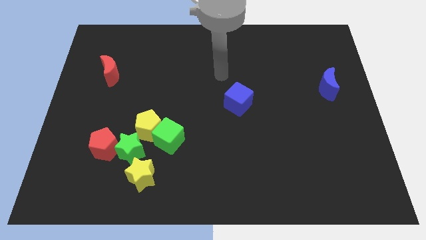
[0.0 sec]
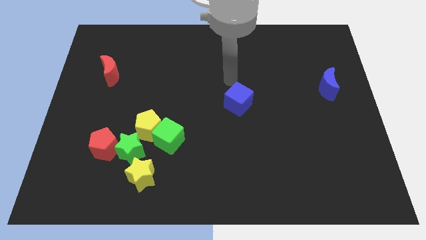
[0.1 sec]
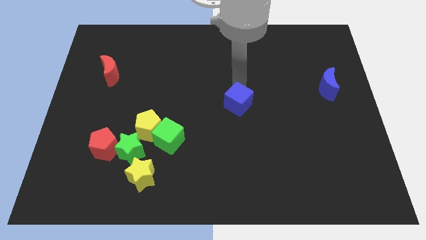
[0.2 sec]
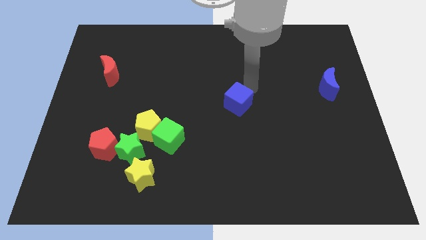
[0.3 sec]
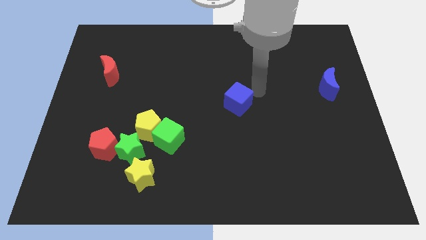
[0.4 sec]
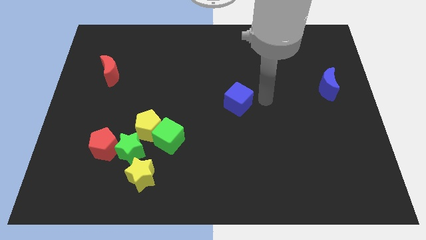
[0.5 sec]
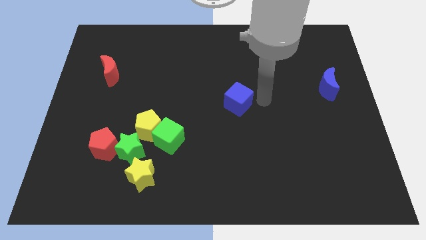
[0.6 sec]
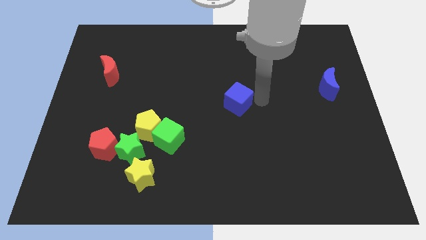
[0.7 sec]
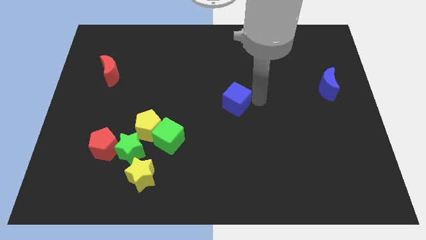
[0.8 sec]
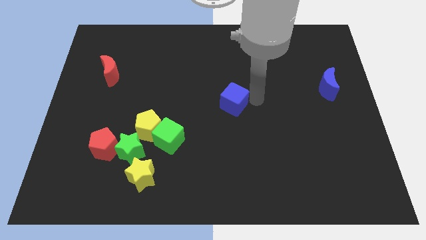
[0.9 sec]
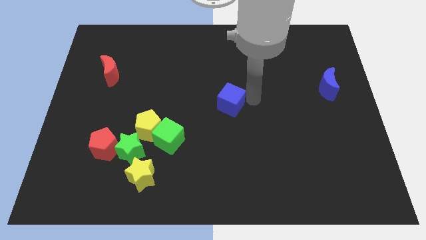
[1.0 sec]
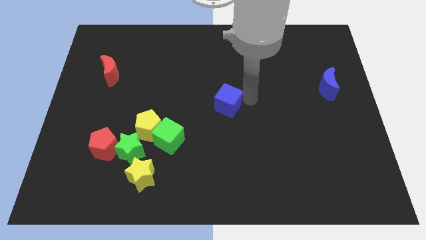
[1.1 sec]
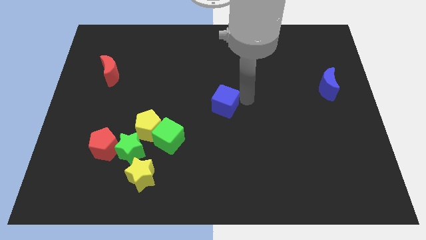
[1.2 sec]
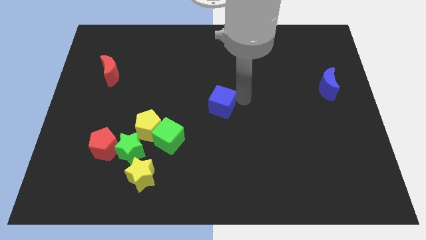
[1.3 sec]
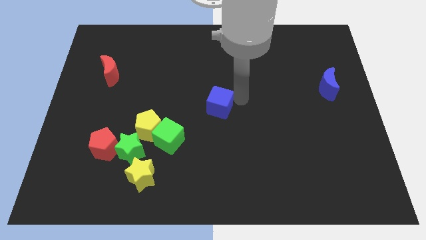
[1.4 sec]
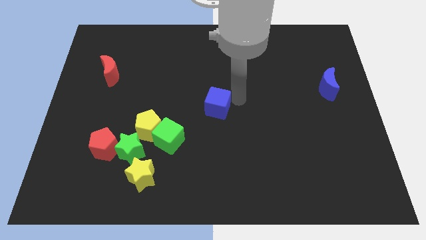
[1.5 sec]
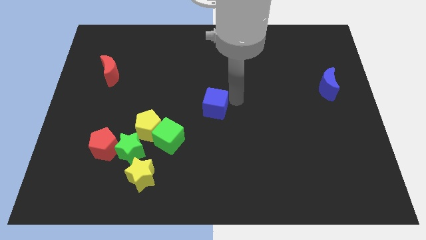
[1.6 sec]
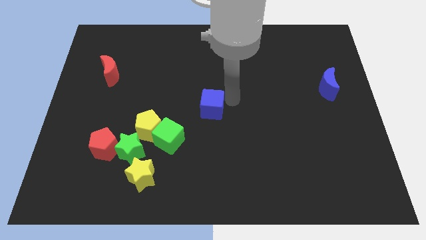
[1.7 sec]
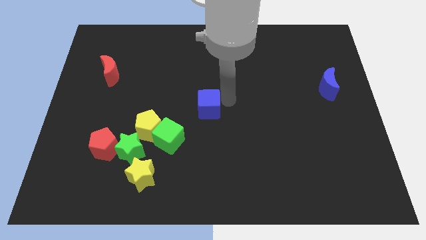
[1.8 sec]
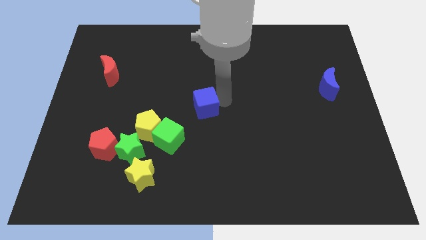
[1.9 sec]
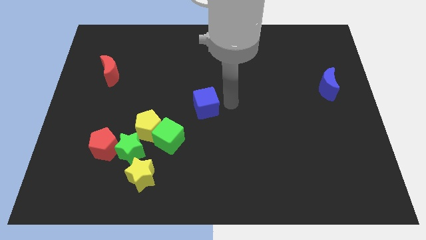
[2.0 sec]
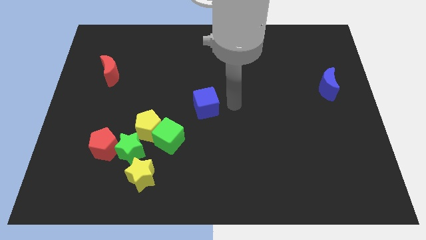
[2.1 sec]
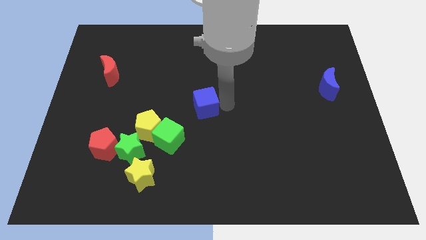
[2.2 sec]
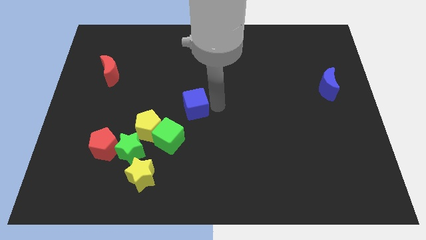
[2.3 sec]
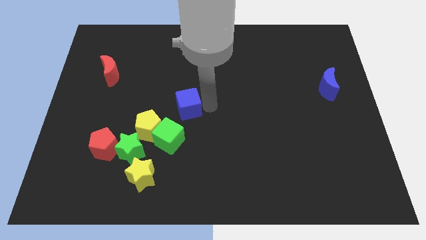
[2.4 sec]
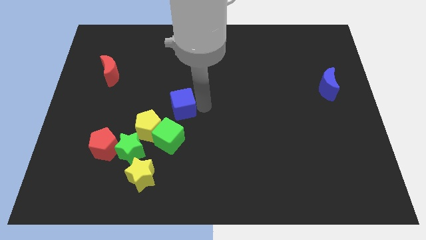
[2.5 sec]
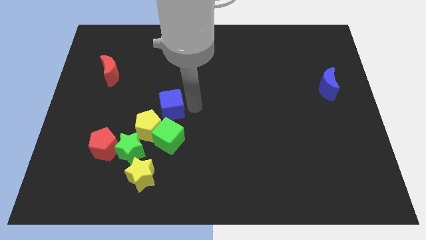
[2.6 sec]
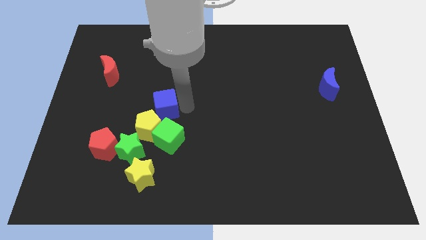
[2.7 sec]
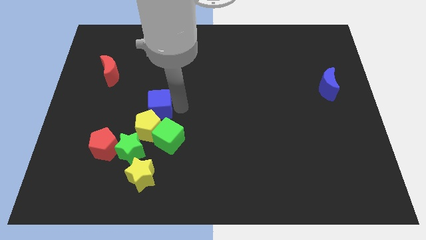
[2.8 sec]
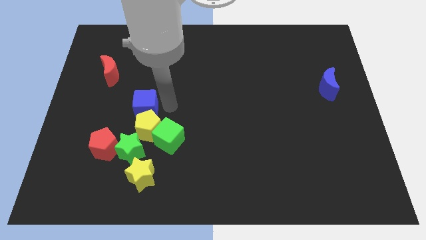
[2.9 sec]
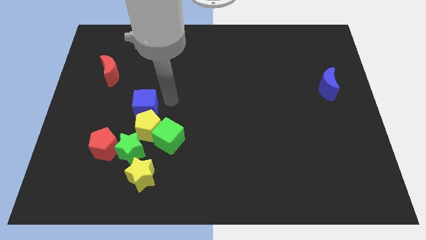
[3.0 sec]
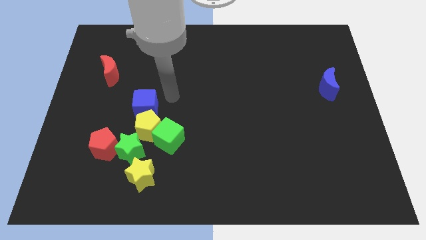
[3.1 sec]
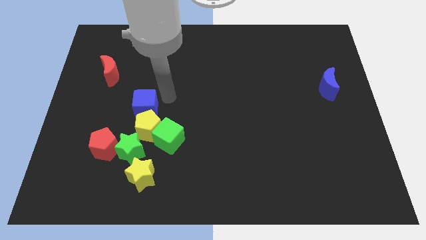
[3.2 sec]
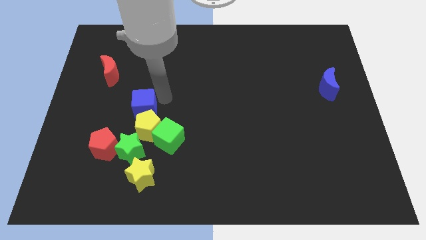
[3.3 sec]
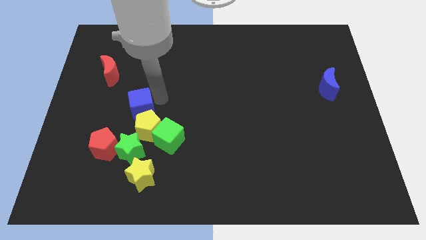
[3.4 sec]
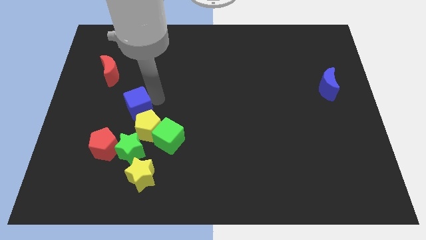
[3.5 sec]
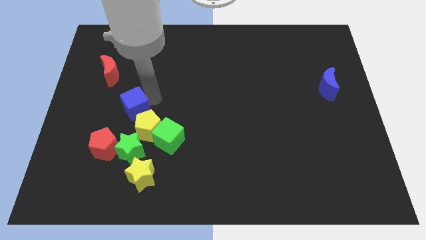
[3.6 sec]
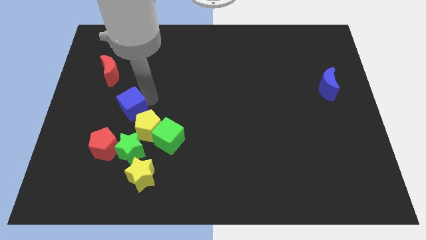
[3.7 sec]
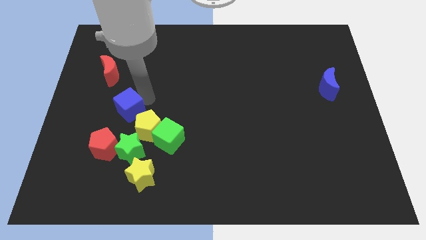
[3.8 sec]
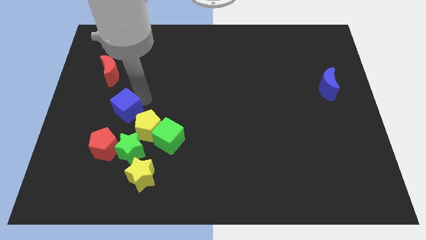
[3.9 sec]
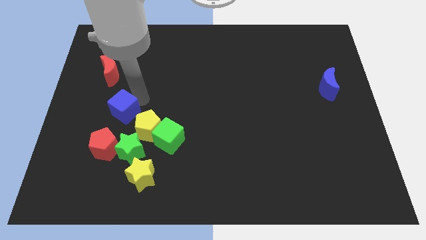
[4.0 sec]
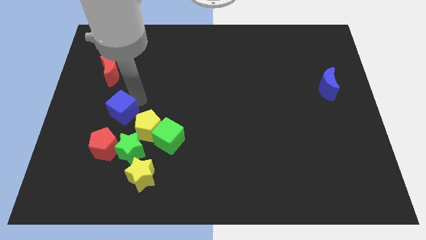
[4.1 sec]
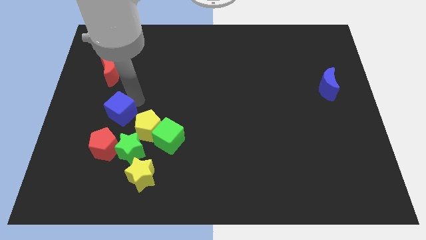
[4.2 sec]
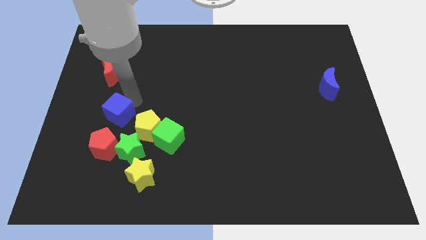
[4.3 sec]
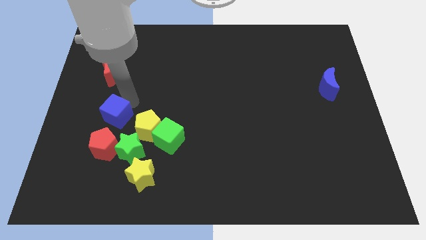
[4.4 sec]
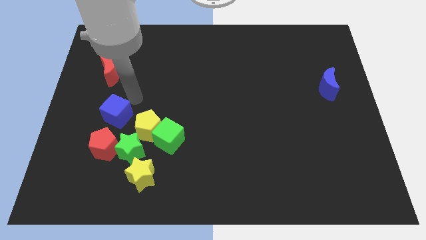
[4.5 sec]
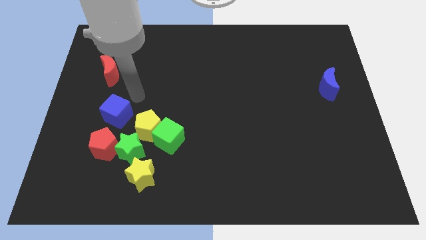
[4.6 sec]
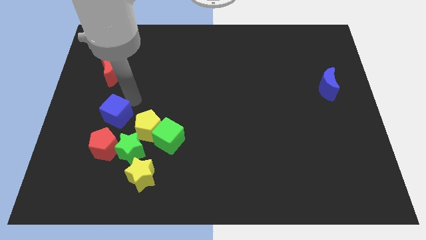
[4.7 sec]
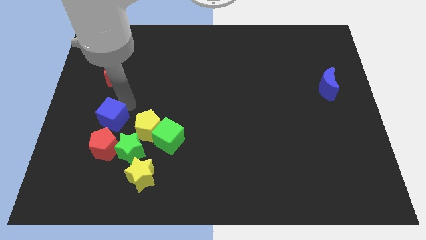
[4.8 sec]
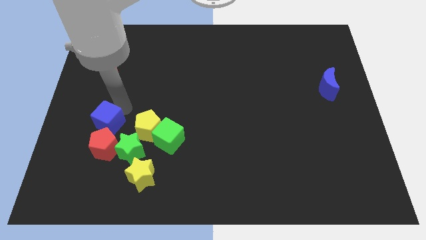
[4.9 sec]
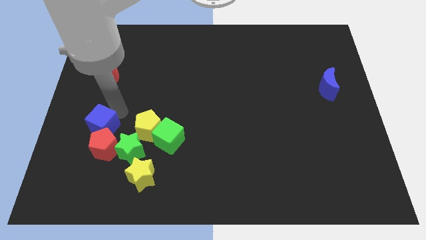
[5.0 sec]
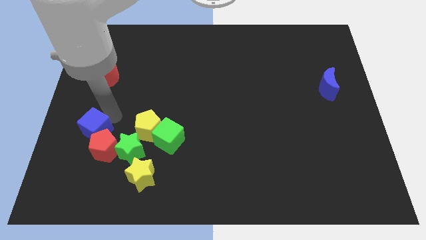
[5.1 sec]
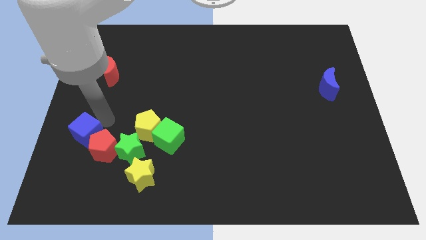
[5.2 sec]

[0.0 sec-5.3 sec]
put the blue cube just left of the green star

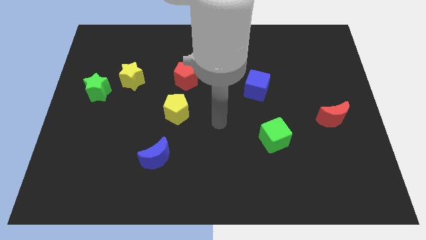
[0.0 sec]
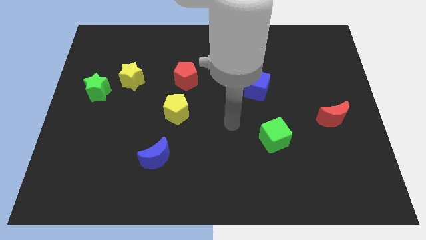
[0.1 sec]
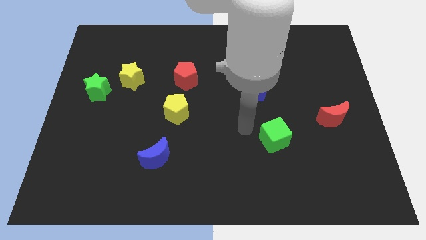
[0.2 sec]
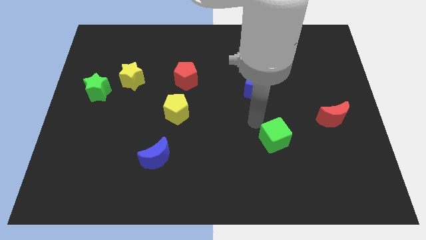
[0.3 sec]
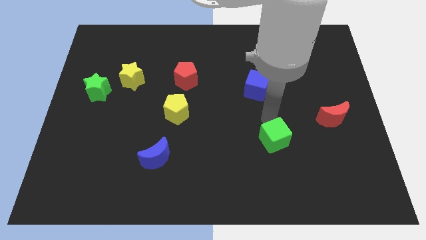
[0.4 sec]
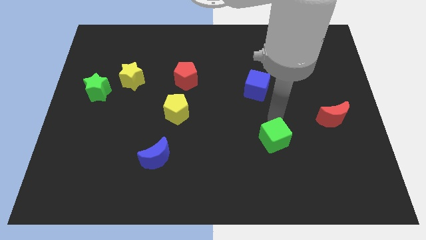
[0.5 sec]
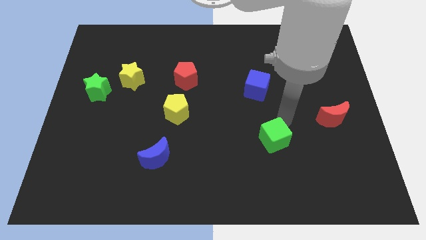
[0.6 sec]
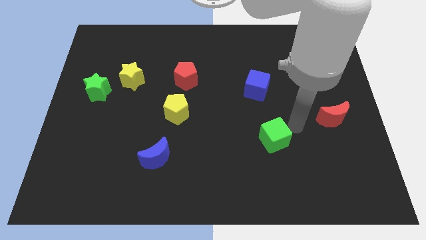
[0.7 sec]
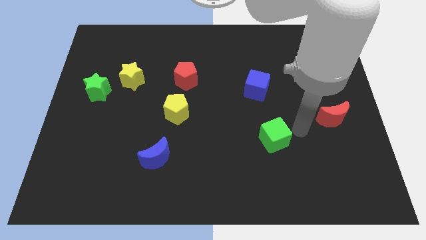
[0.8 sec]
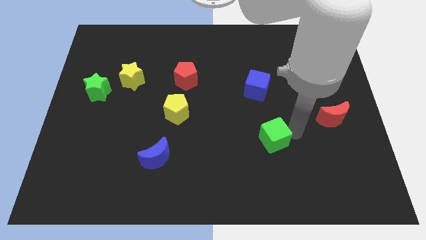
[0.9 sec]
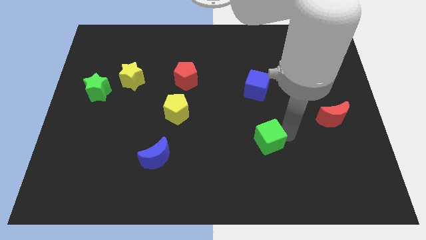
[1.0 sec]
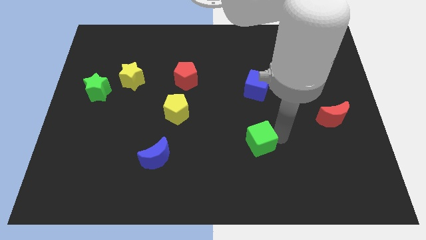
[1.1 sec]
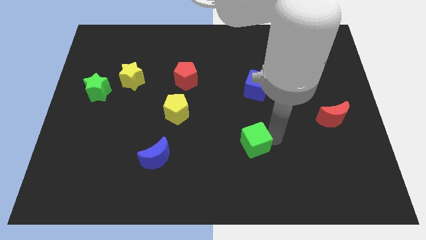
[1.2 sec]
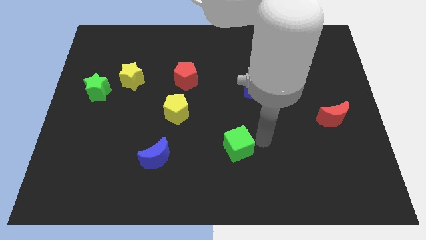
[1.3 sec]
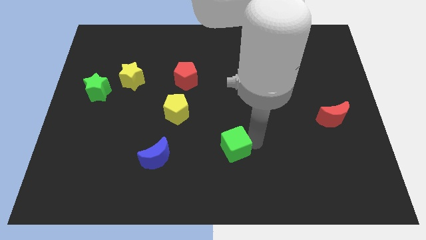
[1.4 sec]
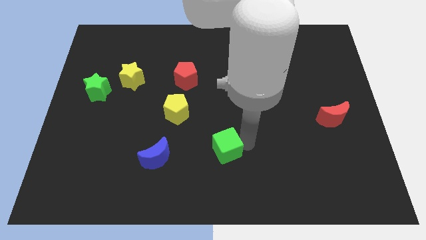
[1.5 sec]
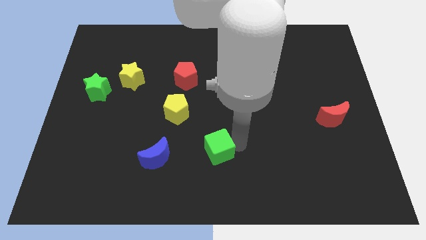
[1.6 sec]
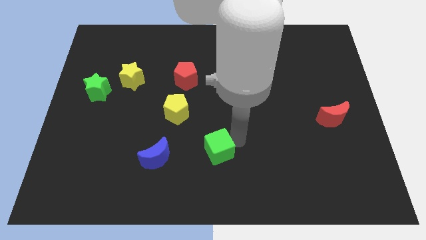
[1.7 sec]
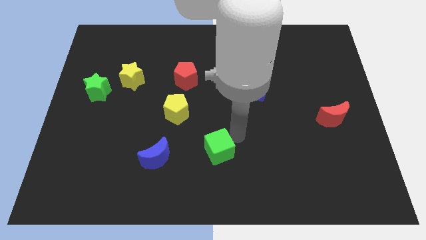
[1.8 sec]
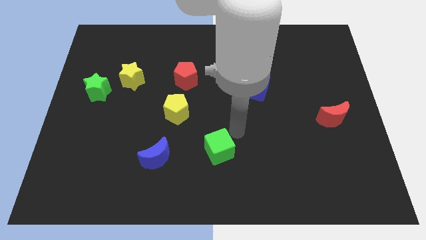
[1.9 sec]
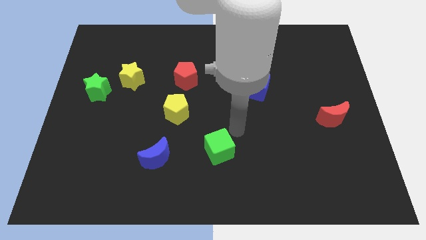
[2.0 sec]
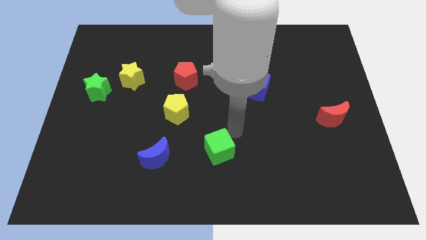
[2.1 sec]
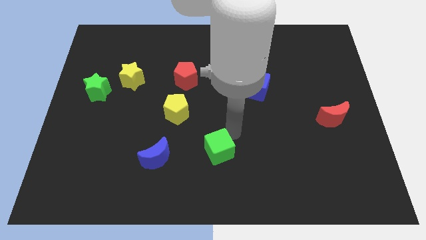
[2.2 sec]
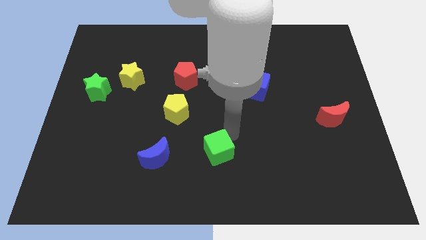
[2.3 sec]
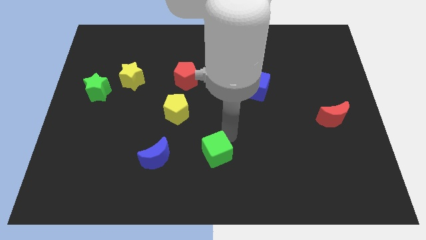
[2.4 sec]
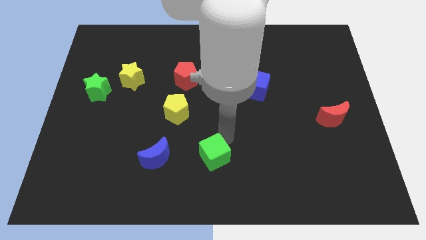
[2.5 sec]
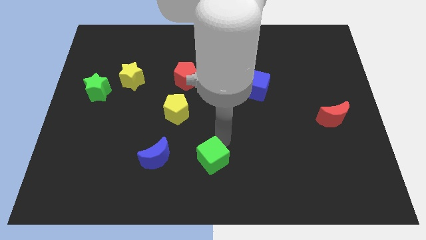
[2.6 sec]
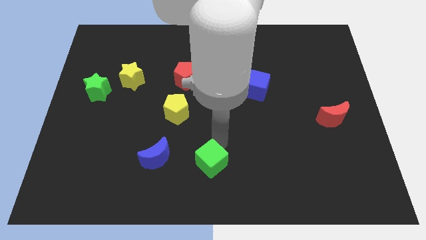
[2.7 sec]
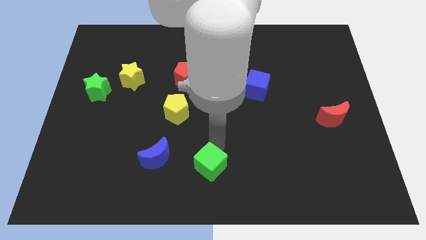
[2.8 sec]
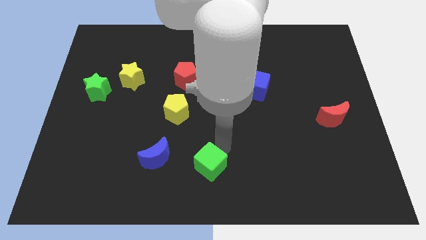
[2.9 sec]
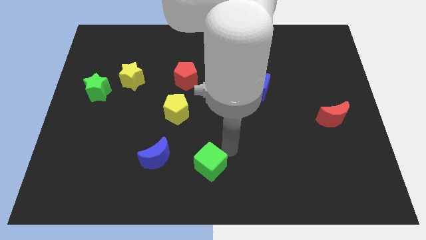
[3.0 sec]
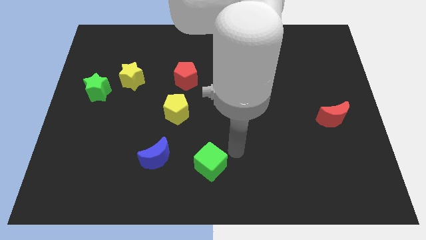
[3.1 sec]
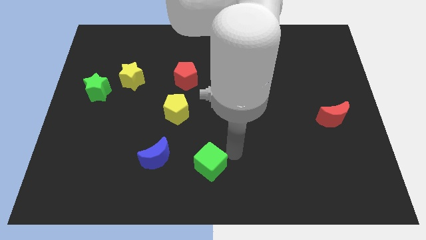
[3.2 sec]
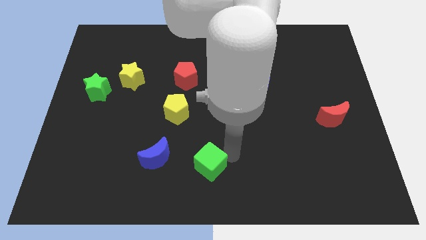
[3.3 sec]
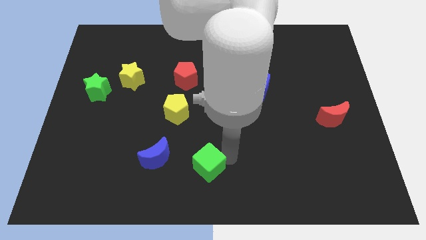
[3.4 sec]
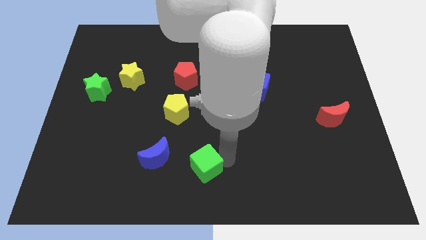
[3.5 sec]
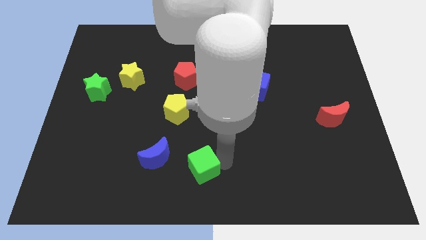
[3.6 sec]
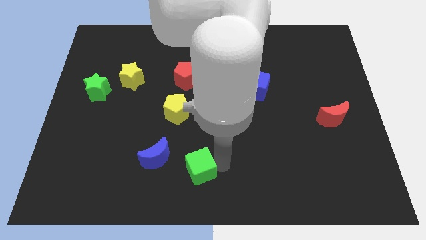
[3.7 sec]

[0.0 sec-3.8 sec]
move the green cube diagonally down and to the right of the blue moon
